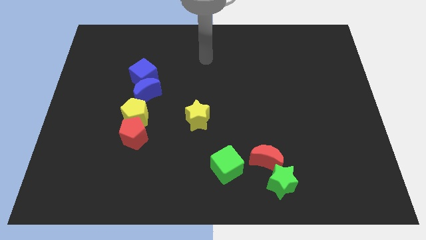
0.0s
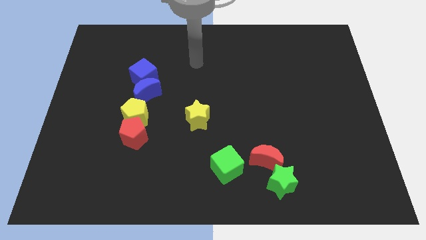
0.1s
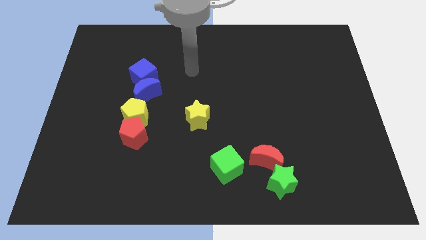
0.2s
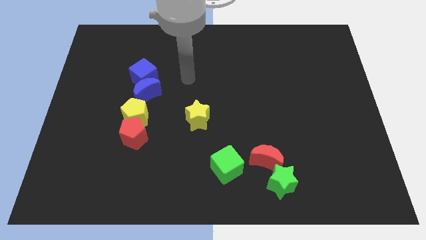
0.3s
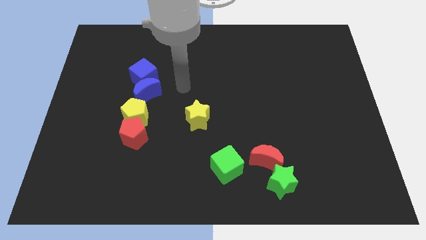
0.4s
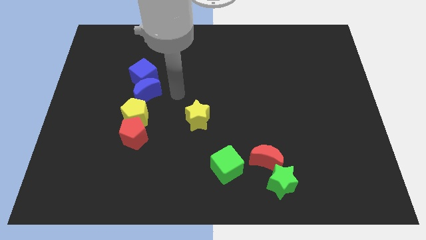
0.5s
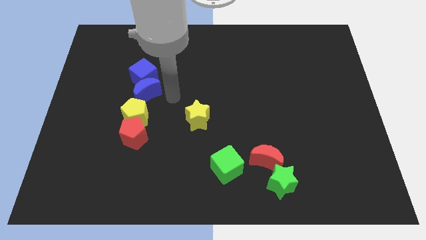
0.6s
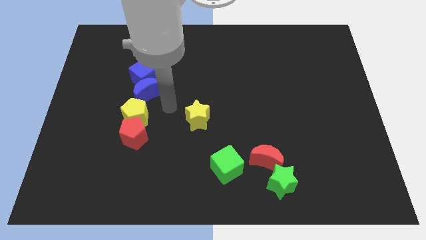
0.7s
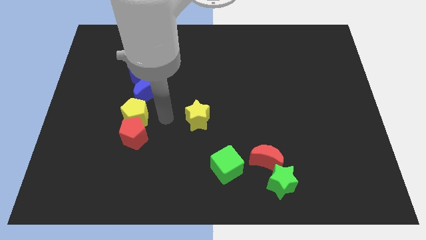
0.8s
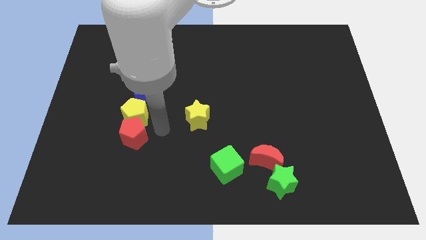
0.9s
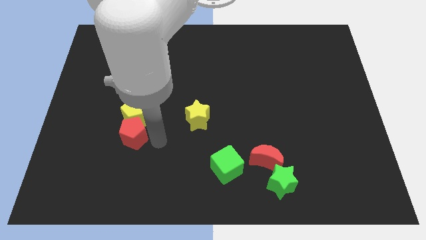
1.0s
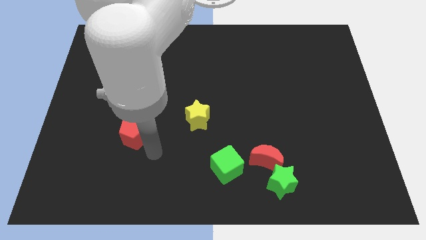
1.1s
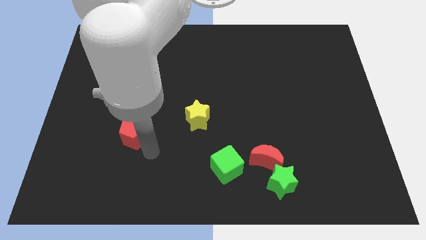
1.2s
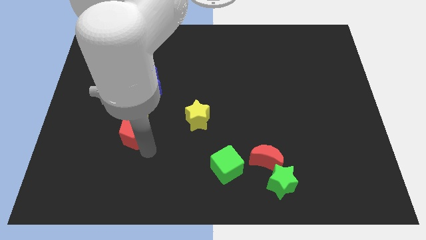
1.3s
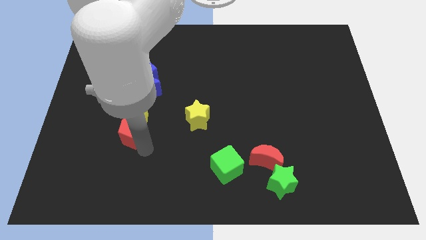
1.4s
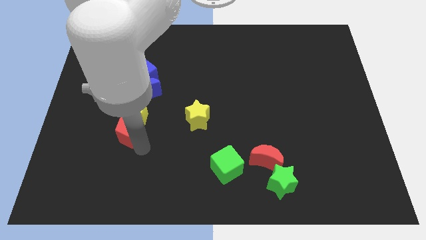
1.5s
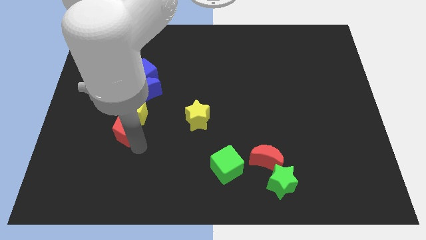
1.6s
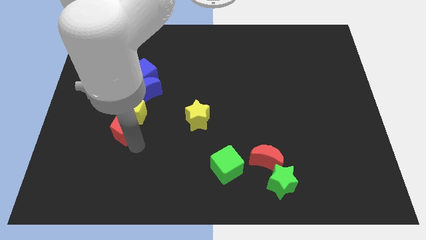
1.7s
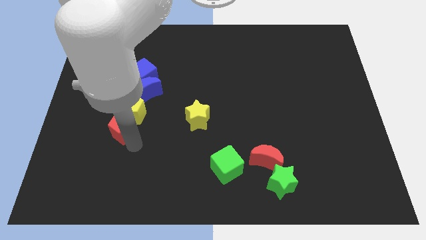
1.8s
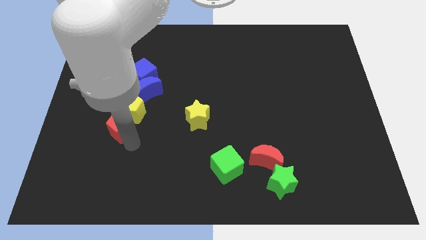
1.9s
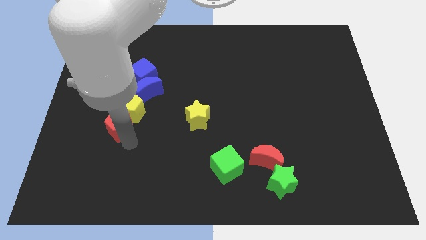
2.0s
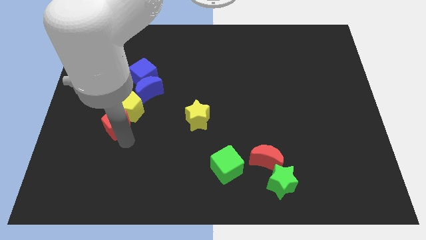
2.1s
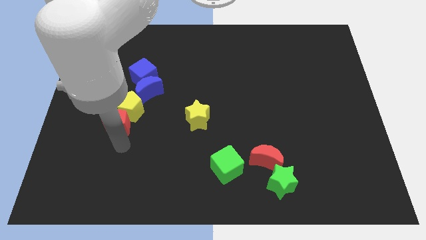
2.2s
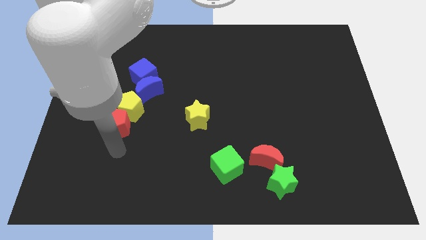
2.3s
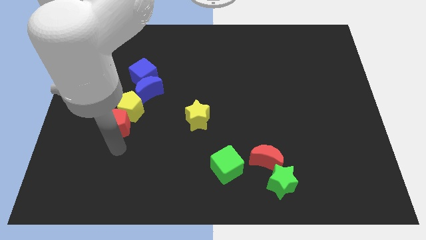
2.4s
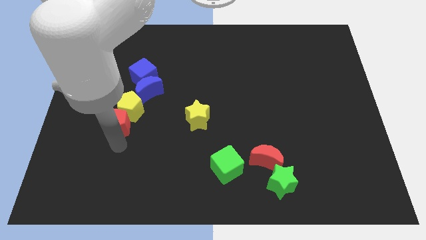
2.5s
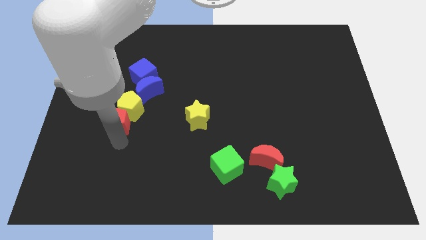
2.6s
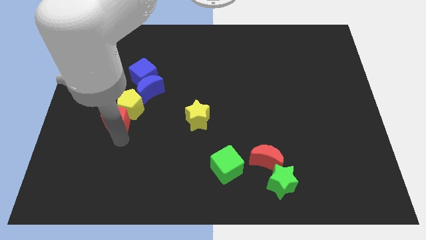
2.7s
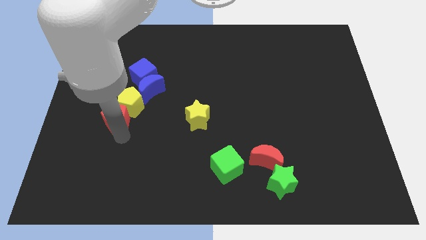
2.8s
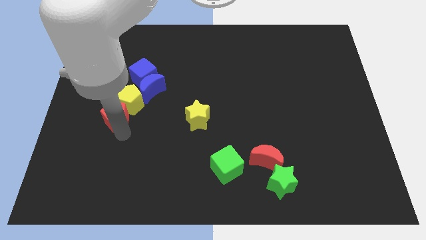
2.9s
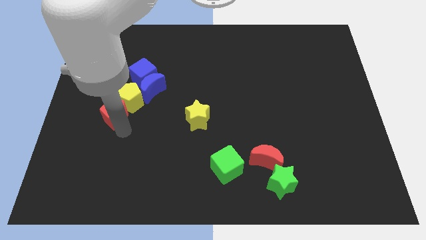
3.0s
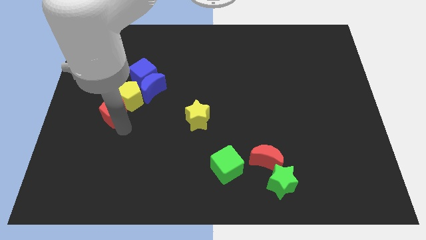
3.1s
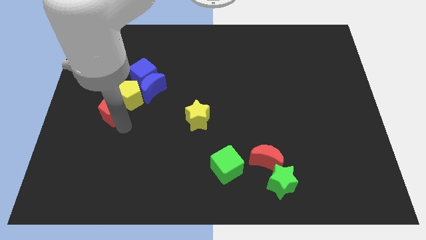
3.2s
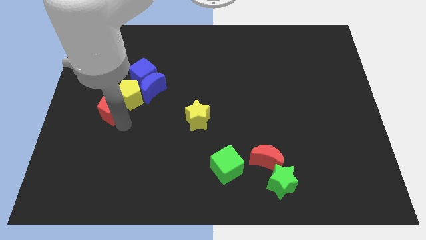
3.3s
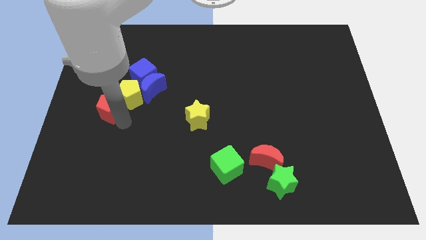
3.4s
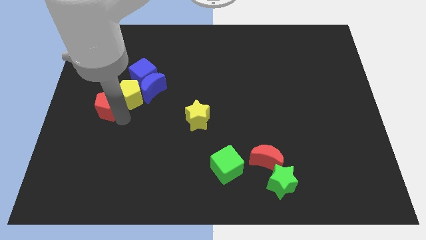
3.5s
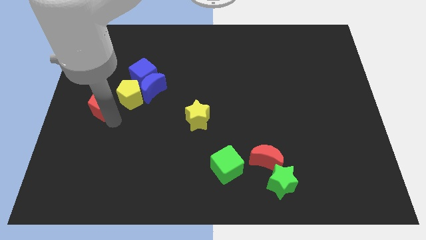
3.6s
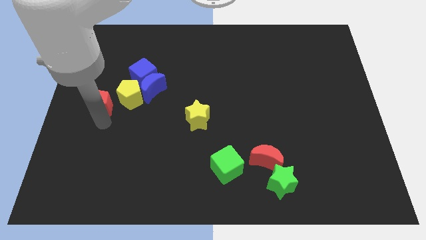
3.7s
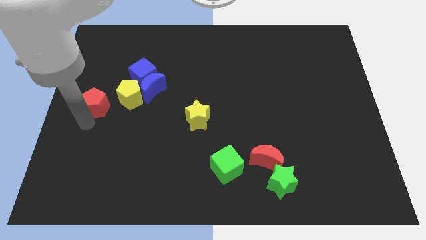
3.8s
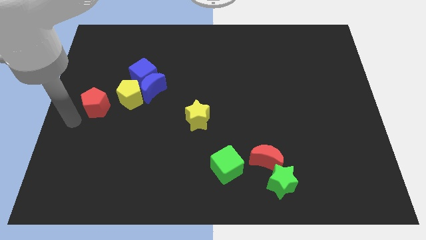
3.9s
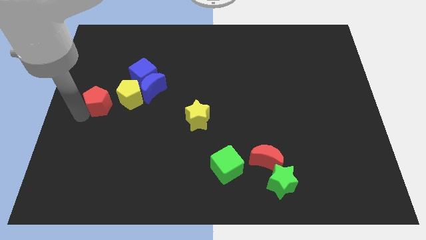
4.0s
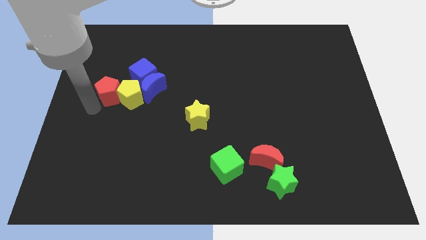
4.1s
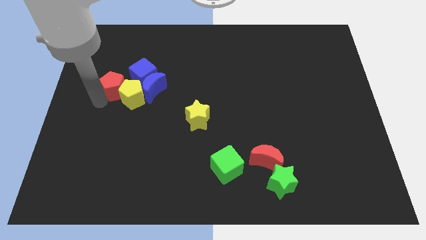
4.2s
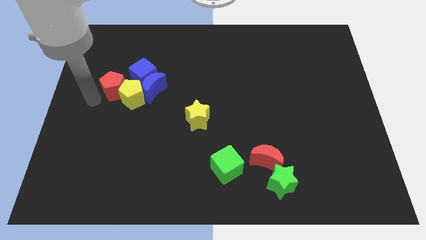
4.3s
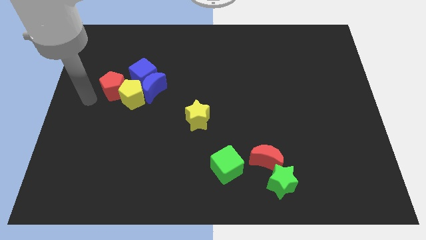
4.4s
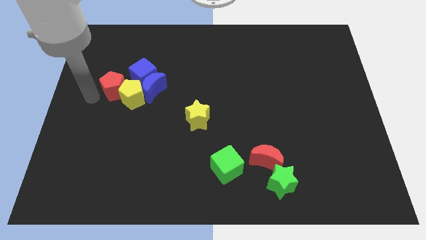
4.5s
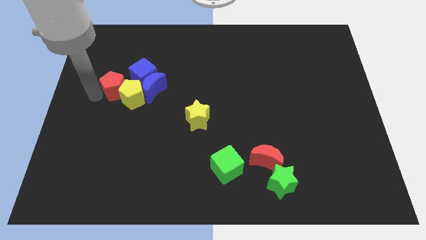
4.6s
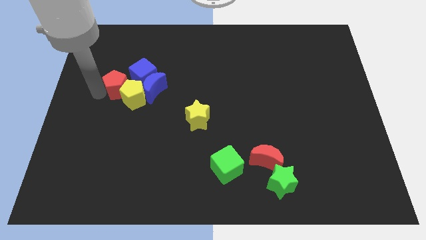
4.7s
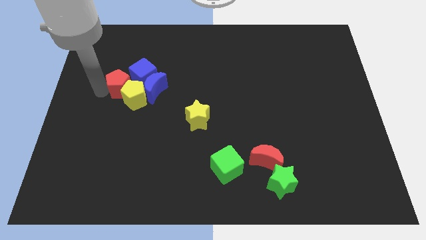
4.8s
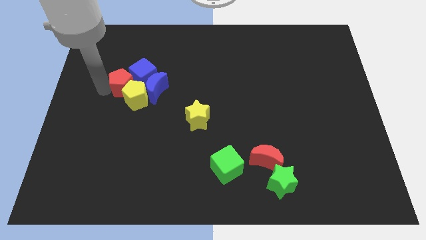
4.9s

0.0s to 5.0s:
push the red pentagon to the blue cube

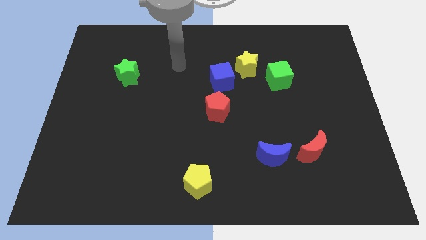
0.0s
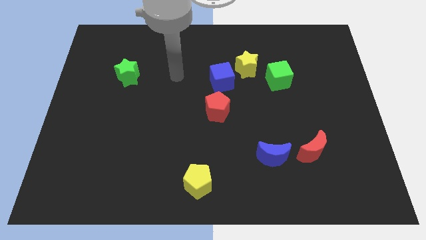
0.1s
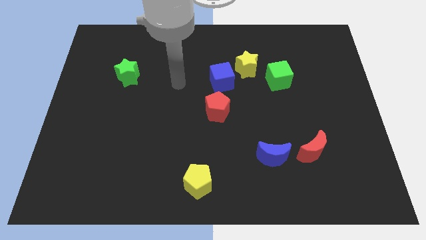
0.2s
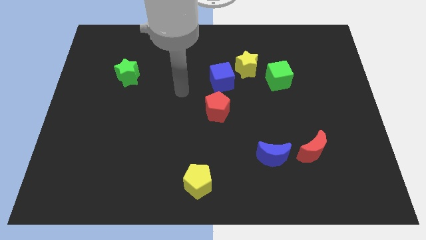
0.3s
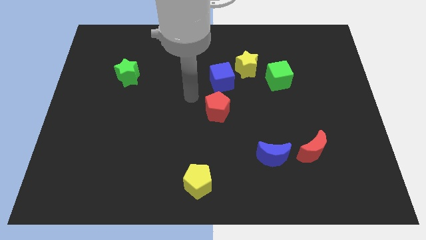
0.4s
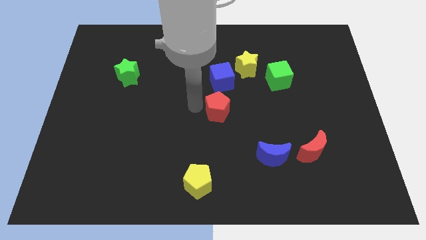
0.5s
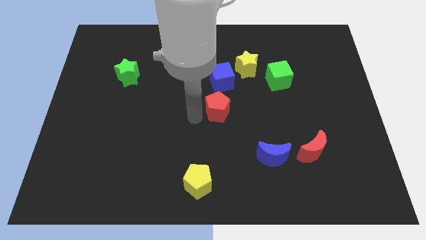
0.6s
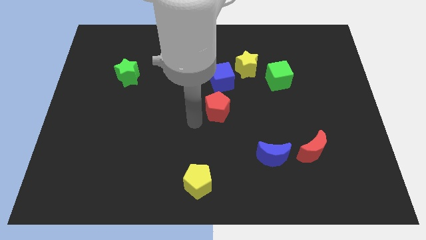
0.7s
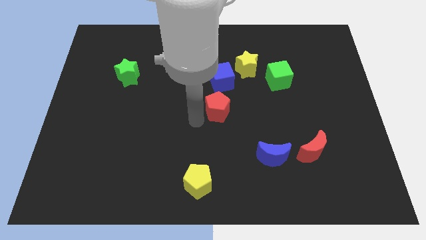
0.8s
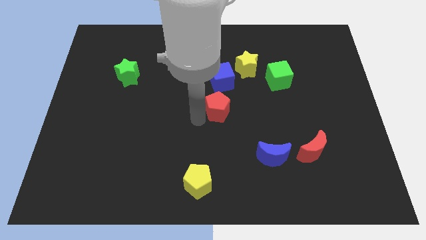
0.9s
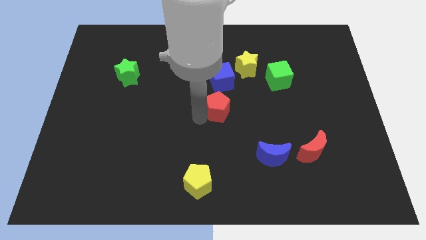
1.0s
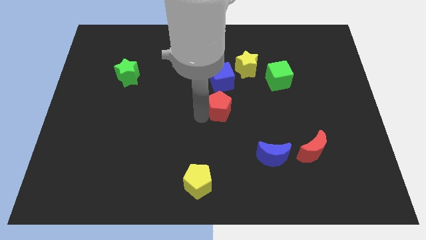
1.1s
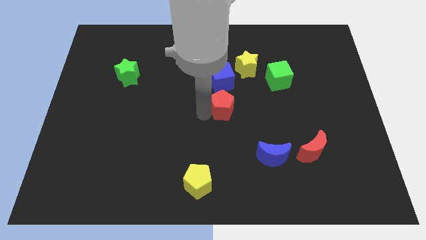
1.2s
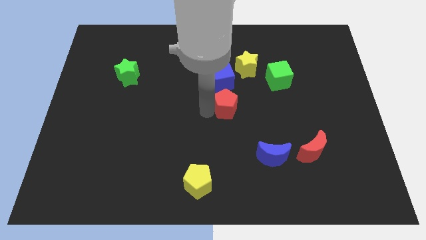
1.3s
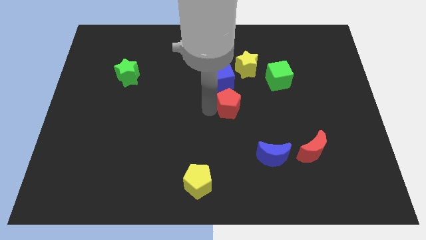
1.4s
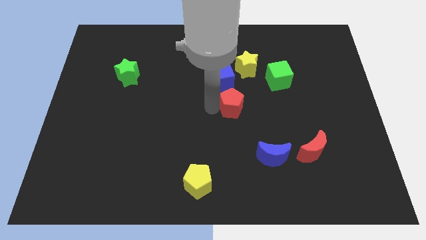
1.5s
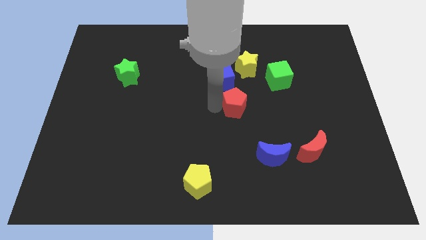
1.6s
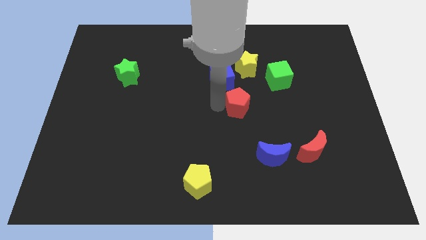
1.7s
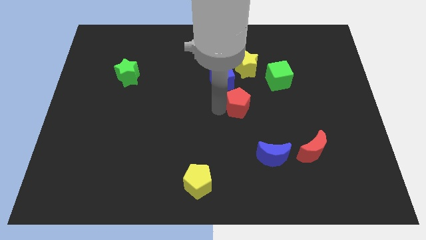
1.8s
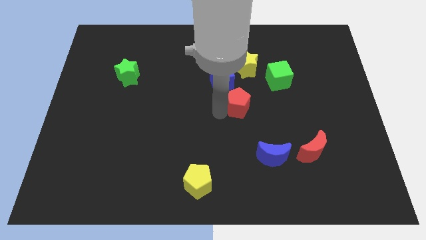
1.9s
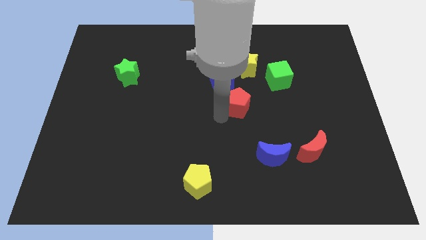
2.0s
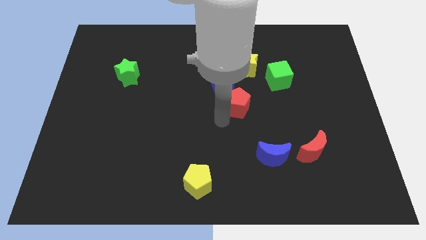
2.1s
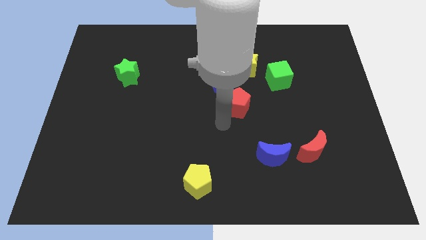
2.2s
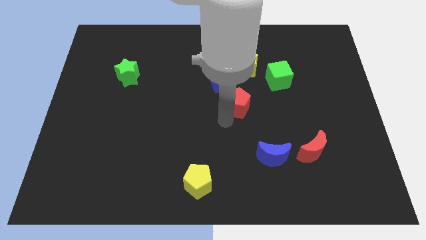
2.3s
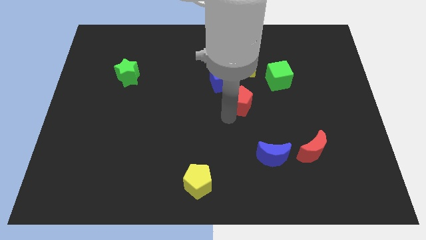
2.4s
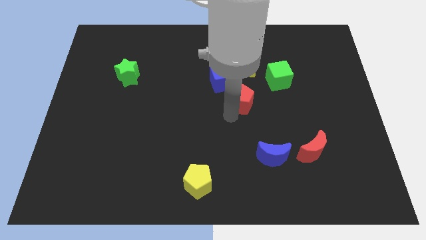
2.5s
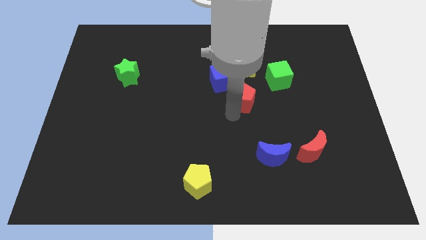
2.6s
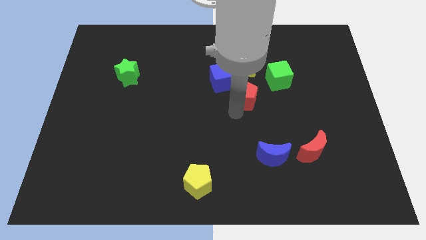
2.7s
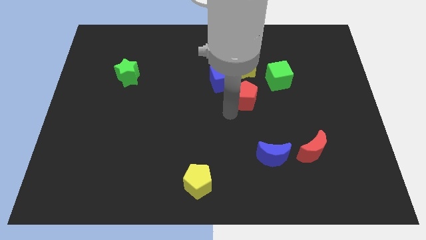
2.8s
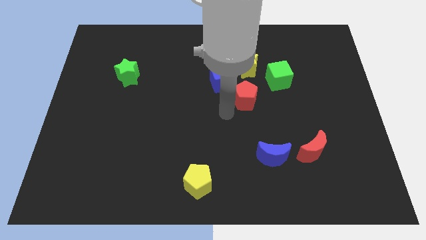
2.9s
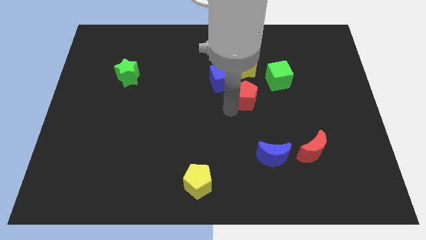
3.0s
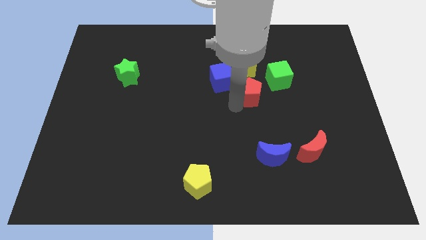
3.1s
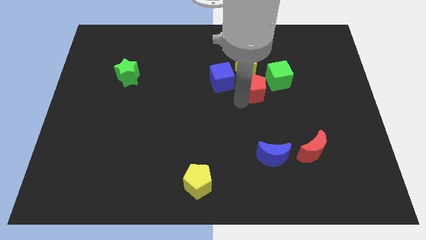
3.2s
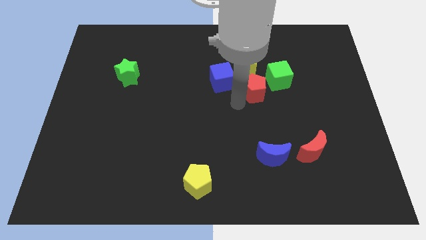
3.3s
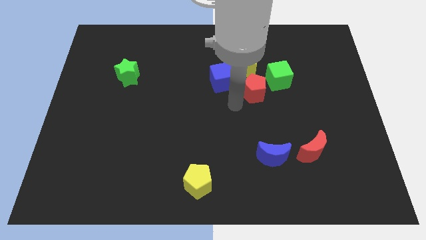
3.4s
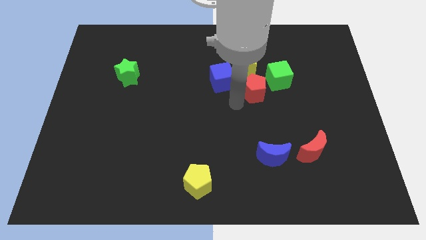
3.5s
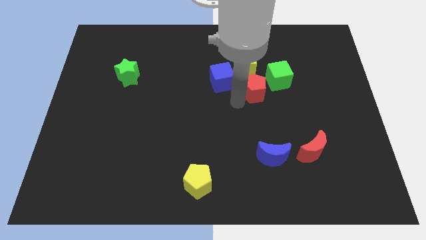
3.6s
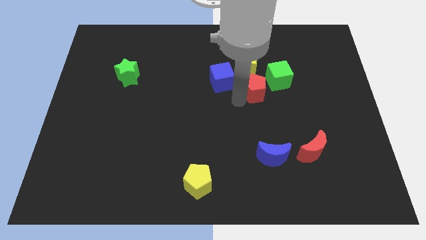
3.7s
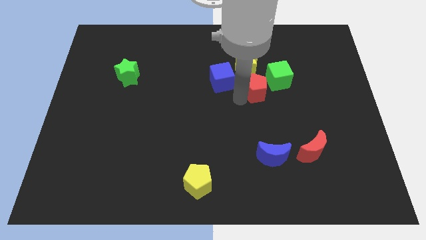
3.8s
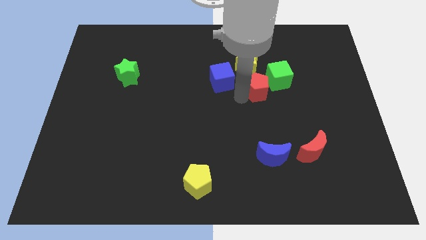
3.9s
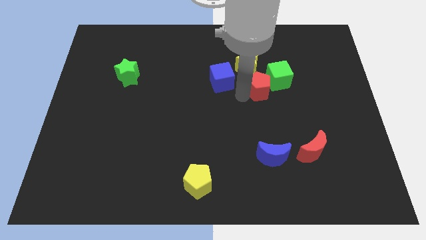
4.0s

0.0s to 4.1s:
slide the red pentagon towards the green cube
